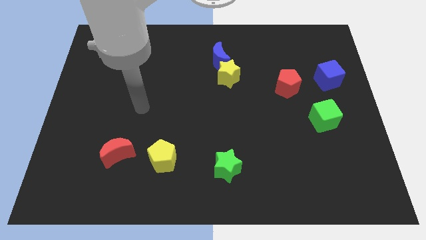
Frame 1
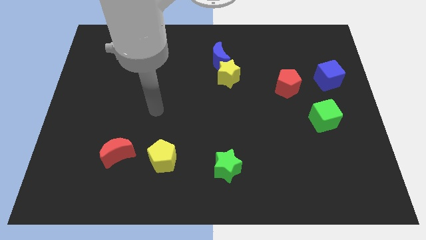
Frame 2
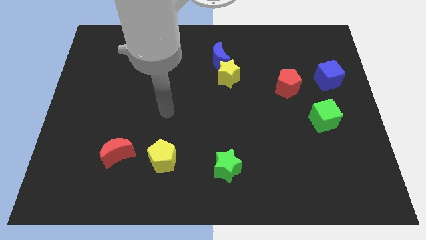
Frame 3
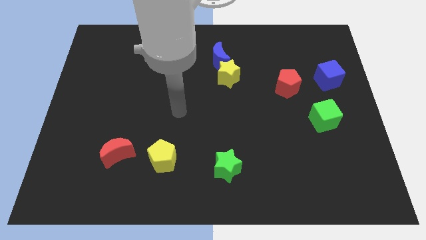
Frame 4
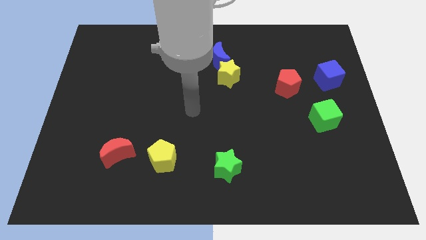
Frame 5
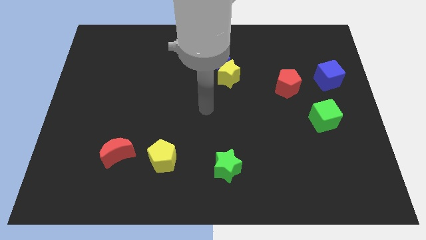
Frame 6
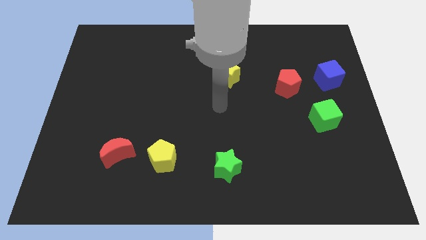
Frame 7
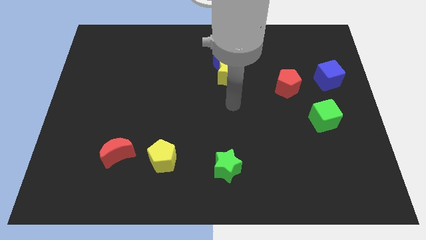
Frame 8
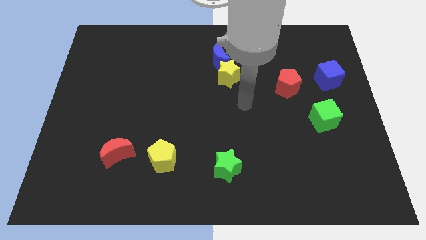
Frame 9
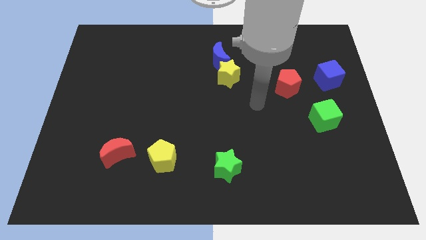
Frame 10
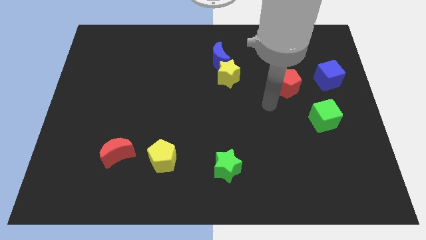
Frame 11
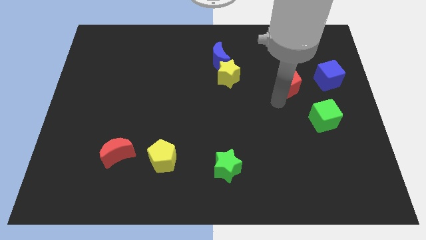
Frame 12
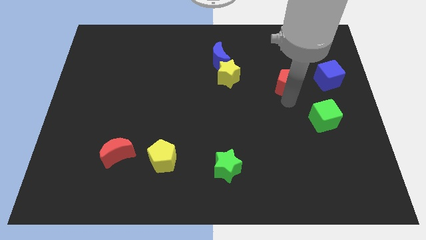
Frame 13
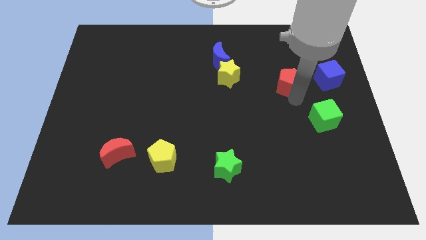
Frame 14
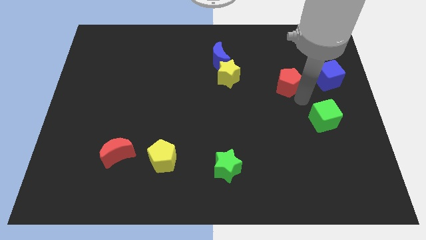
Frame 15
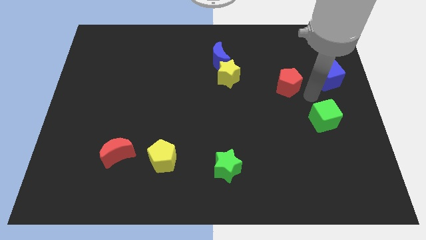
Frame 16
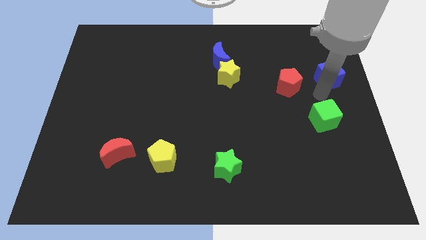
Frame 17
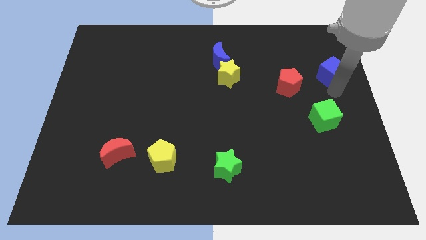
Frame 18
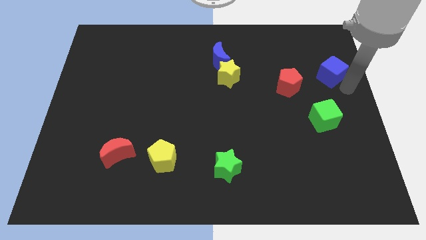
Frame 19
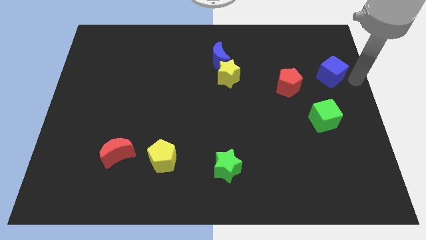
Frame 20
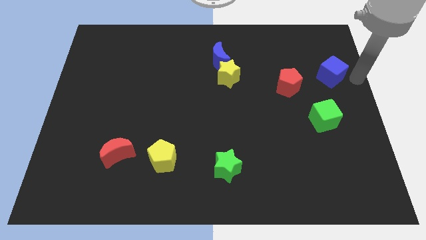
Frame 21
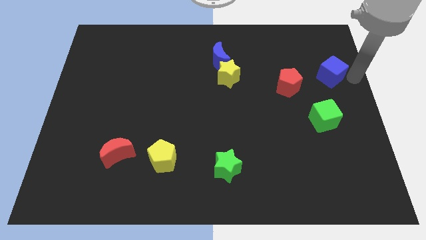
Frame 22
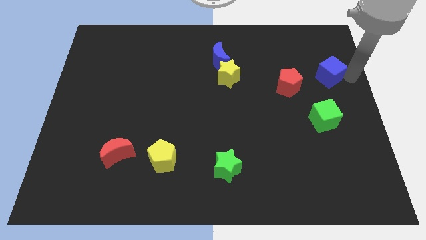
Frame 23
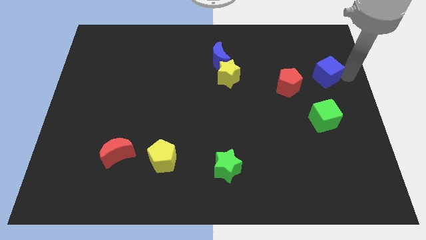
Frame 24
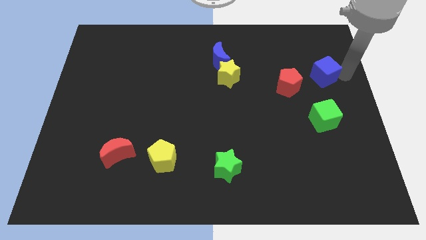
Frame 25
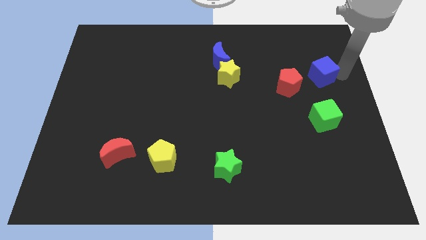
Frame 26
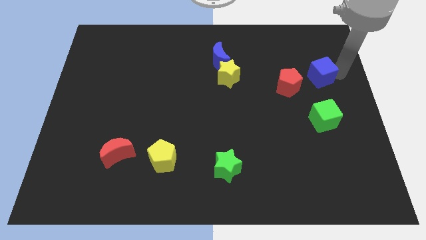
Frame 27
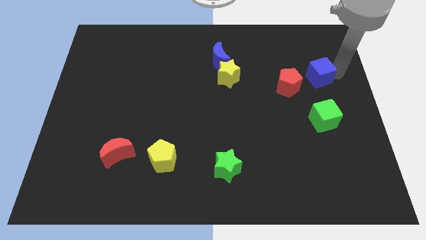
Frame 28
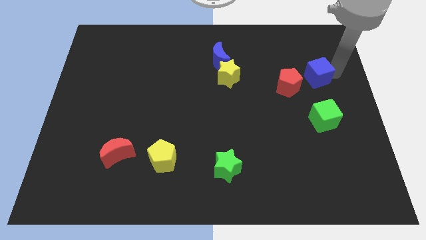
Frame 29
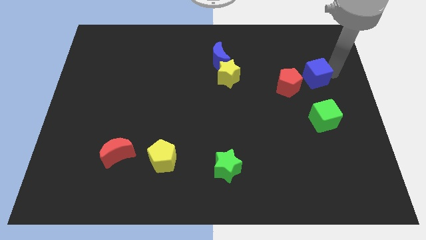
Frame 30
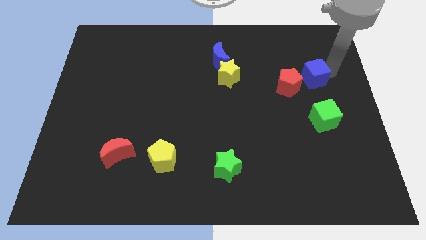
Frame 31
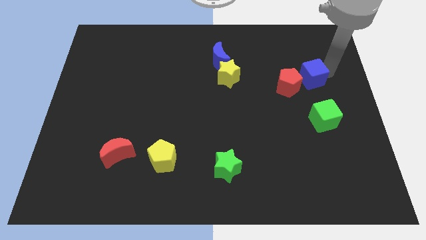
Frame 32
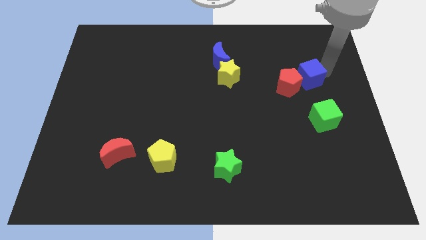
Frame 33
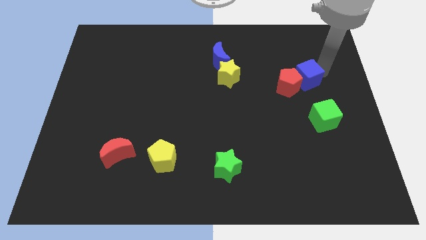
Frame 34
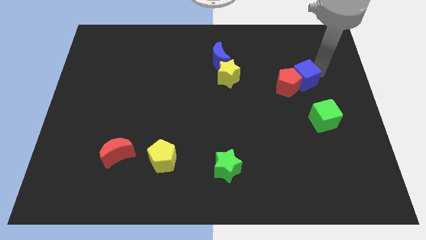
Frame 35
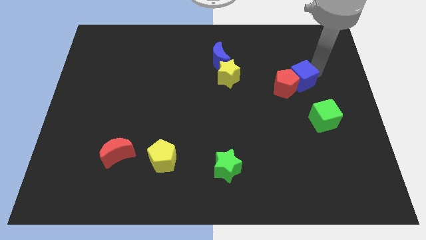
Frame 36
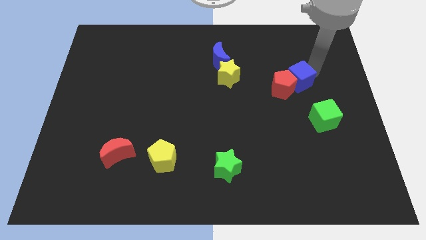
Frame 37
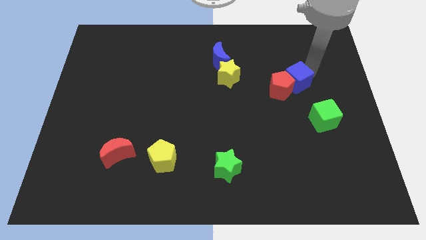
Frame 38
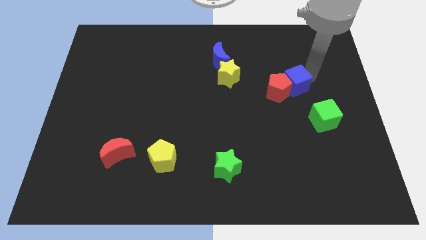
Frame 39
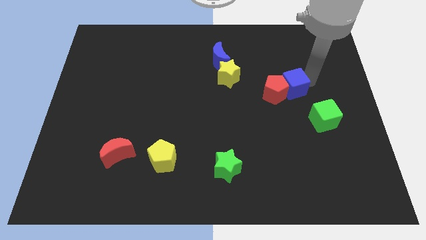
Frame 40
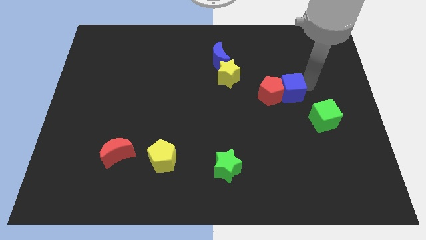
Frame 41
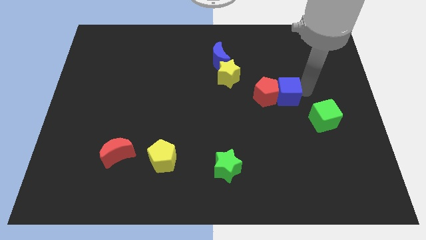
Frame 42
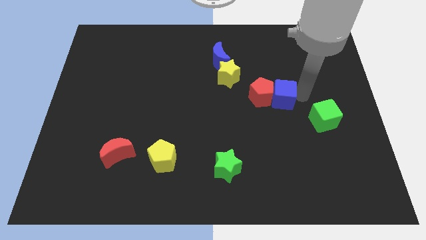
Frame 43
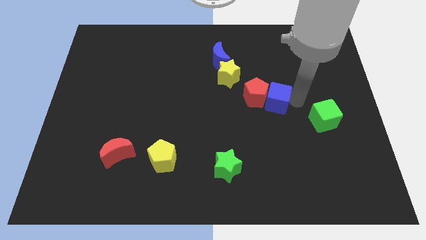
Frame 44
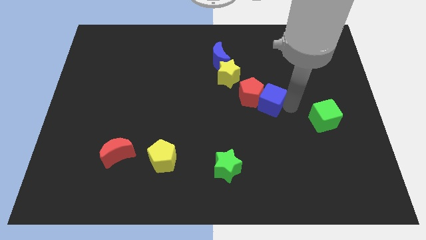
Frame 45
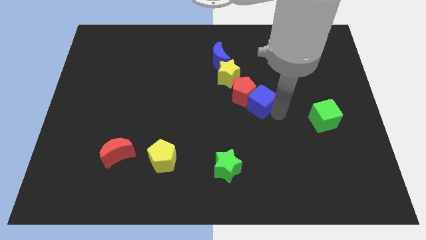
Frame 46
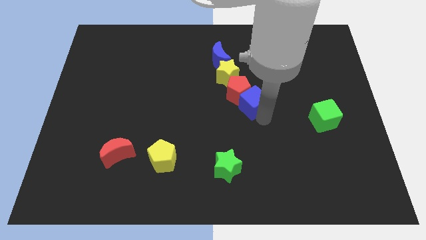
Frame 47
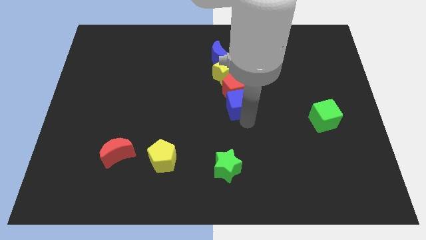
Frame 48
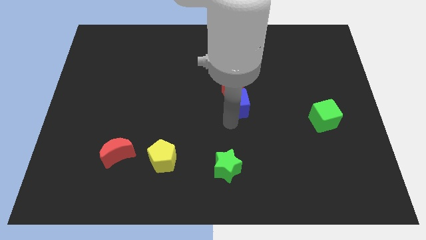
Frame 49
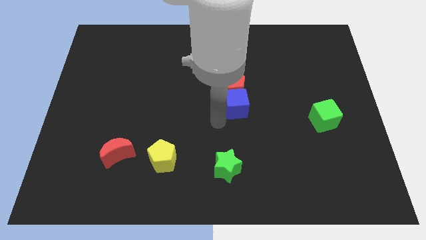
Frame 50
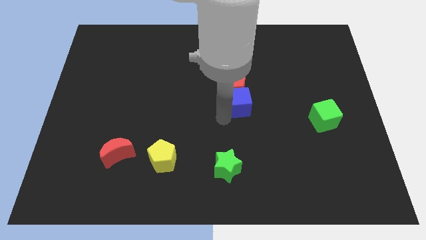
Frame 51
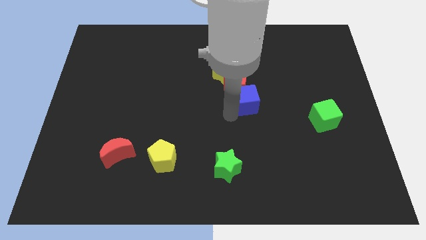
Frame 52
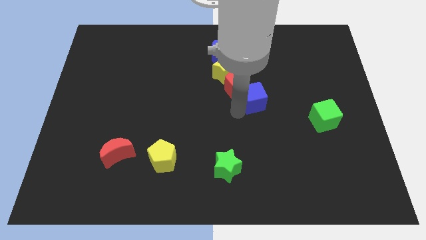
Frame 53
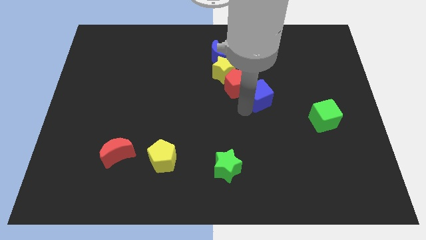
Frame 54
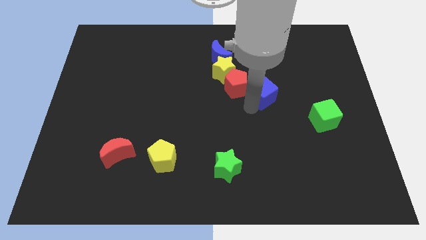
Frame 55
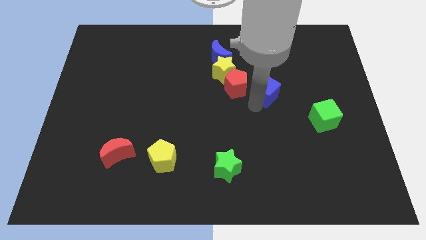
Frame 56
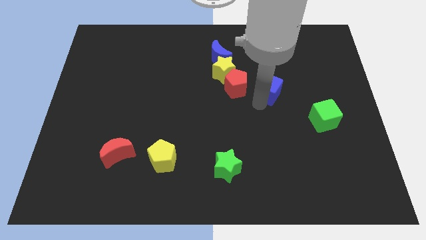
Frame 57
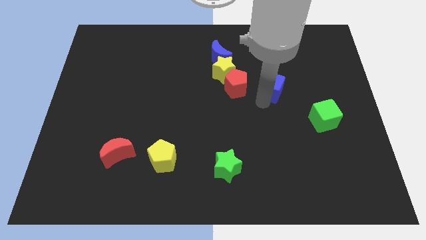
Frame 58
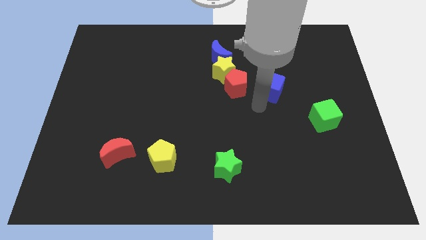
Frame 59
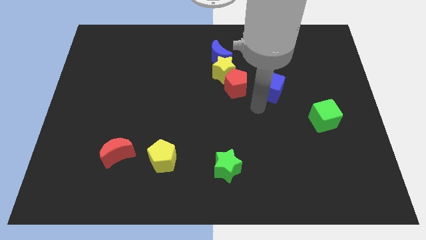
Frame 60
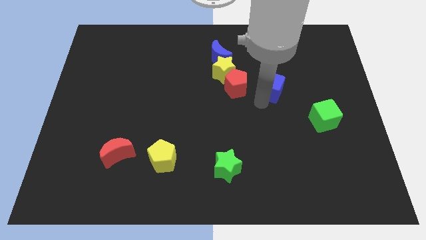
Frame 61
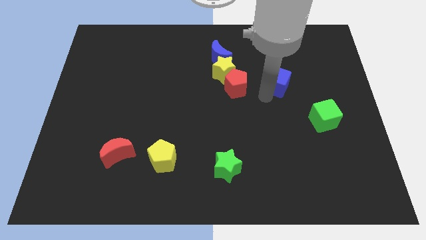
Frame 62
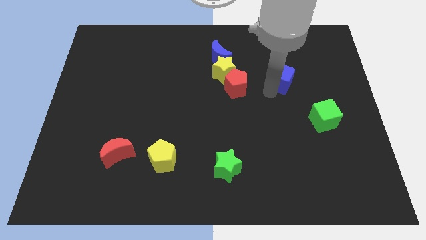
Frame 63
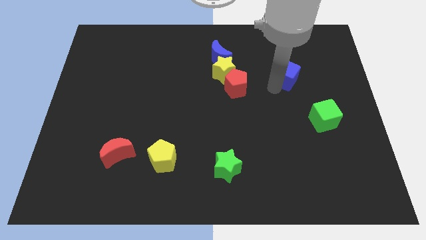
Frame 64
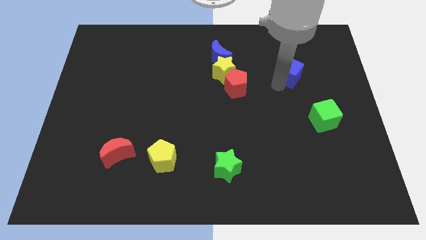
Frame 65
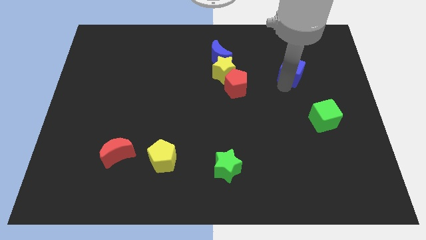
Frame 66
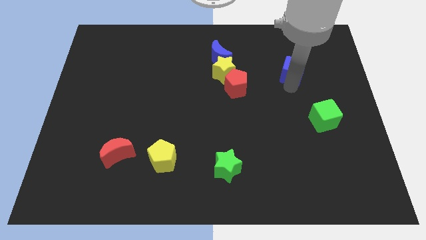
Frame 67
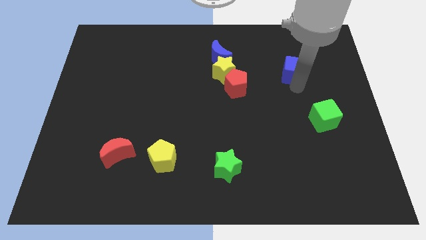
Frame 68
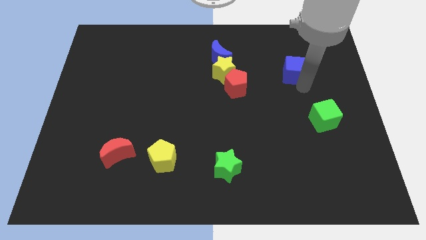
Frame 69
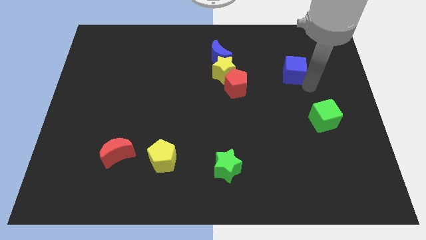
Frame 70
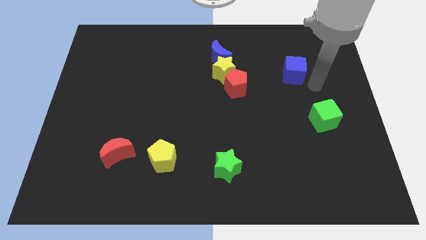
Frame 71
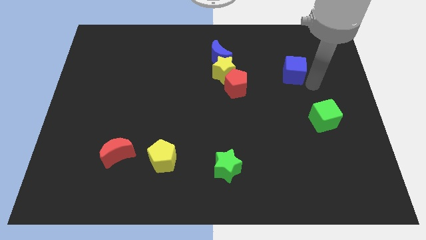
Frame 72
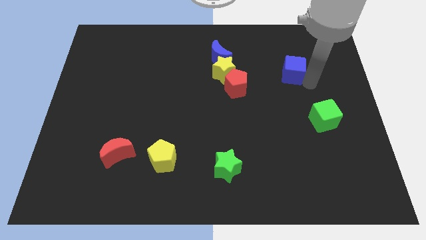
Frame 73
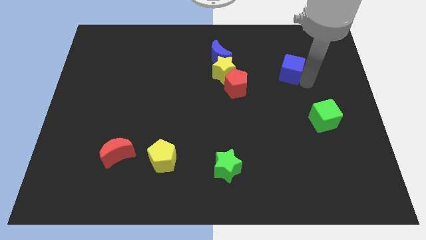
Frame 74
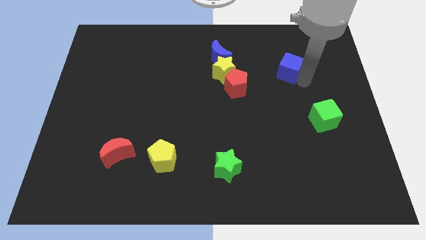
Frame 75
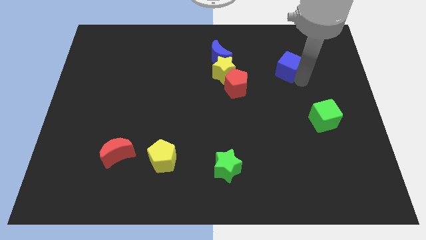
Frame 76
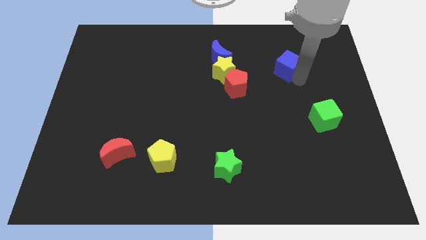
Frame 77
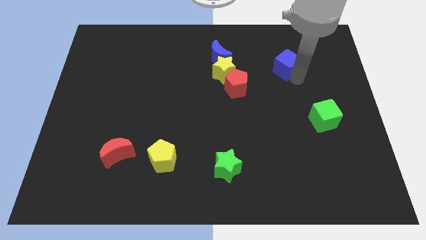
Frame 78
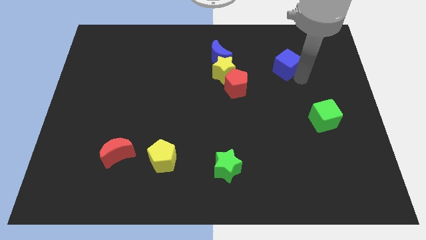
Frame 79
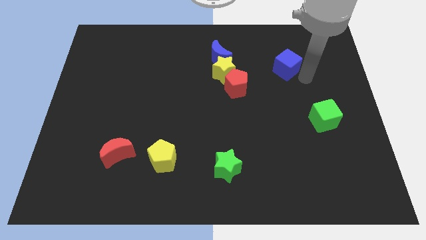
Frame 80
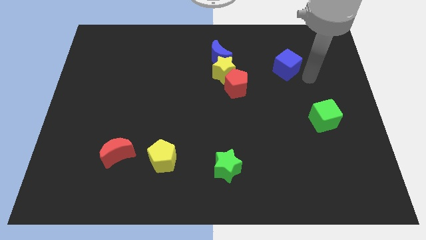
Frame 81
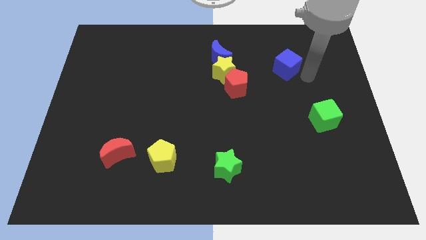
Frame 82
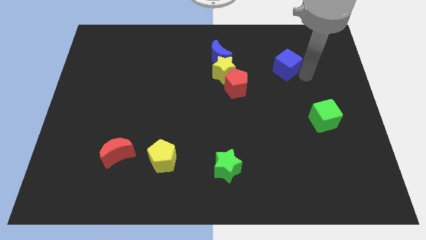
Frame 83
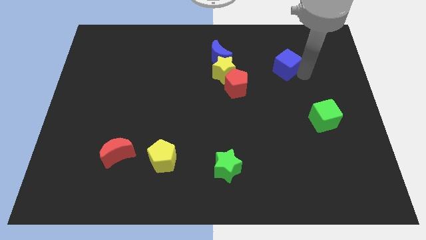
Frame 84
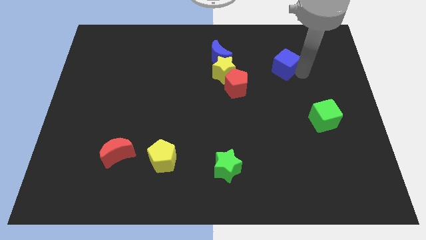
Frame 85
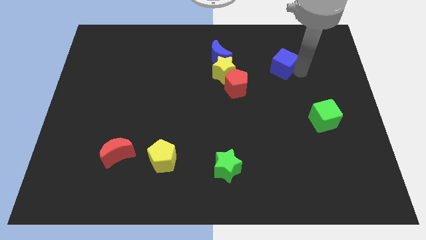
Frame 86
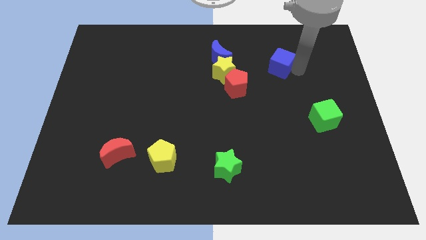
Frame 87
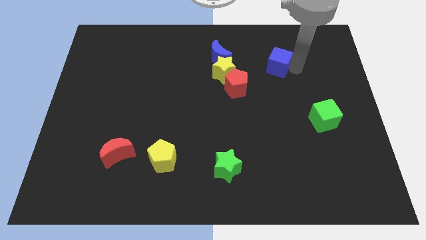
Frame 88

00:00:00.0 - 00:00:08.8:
move the blue cube right of the blue moon
